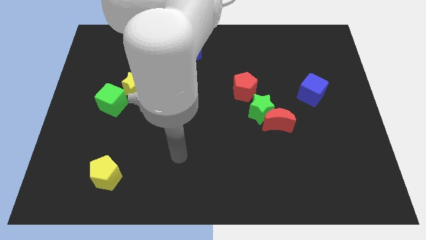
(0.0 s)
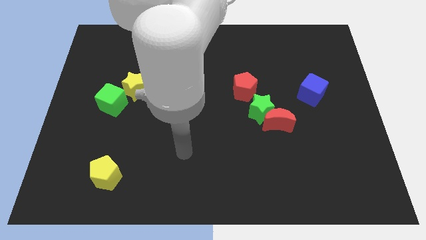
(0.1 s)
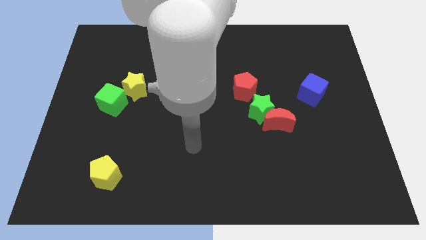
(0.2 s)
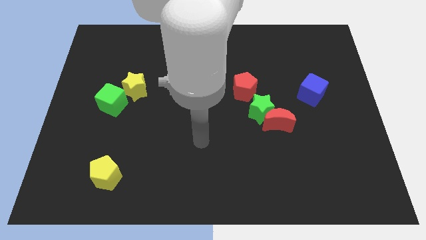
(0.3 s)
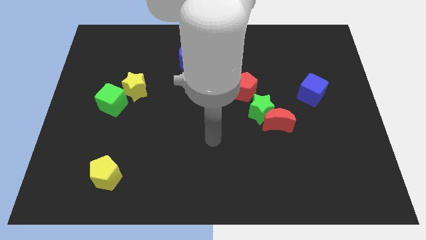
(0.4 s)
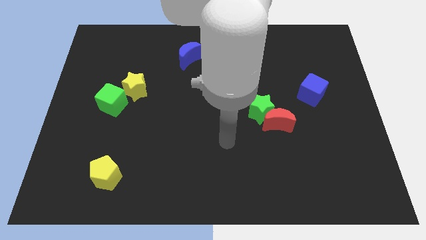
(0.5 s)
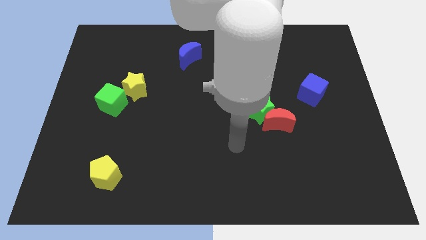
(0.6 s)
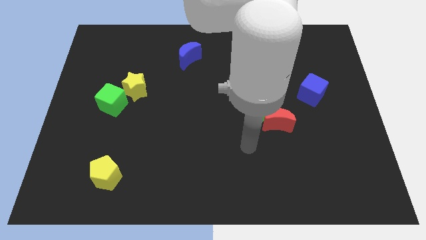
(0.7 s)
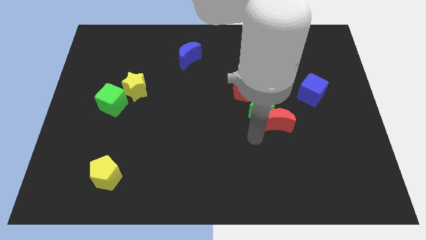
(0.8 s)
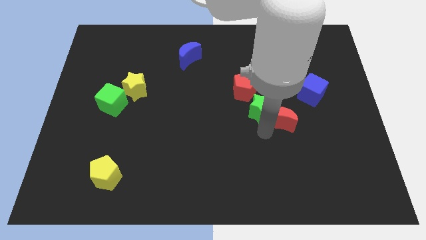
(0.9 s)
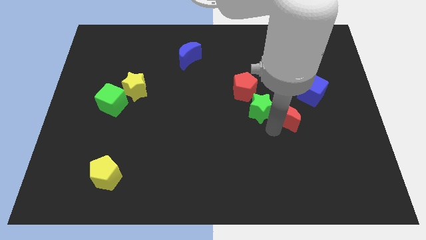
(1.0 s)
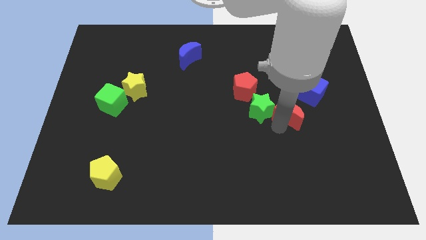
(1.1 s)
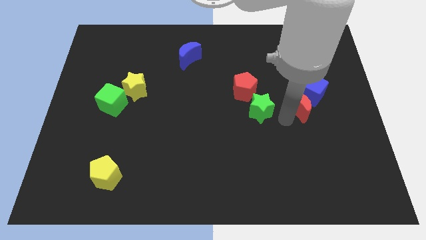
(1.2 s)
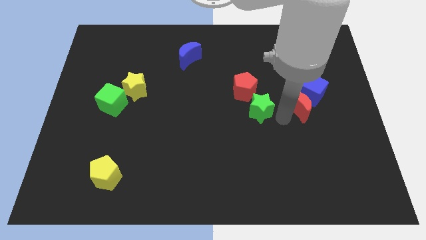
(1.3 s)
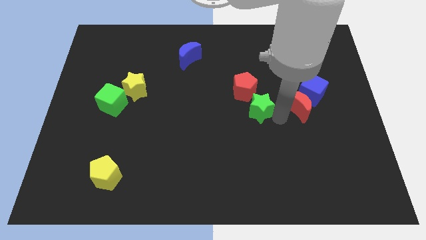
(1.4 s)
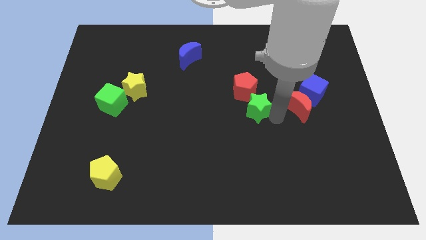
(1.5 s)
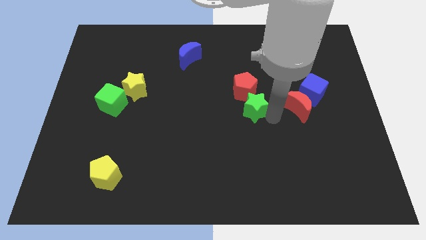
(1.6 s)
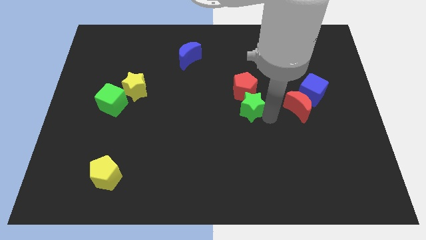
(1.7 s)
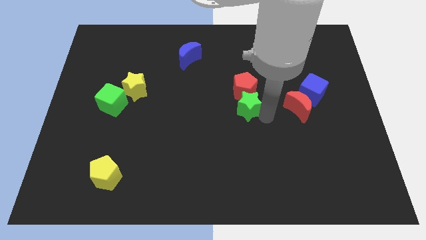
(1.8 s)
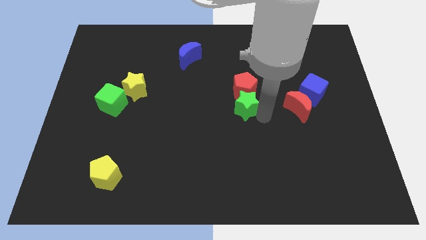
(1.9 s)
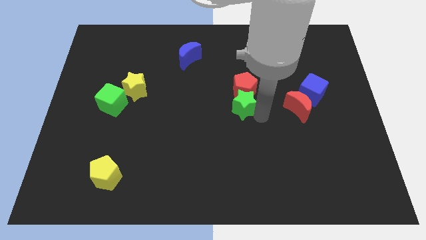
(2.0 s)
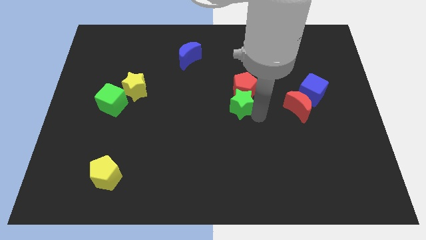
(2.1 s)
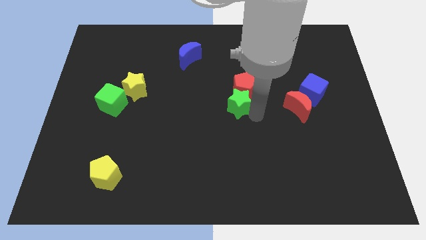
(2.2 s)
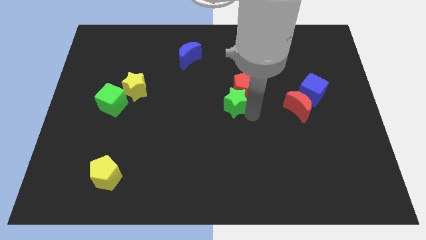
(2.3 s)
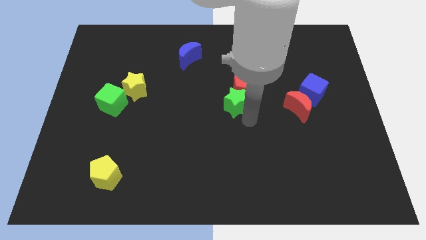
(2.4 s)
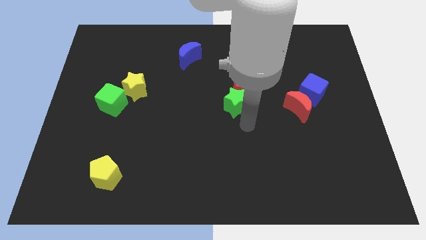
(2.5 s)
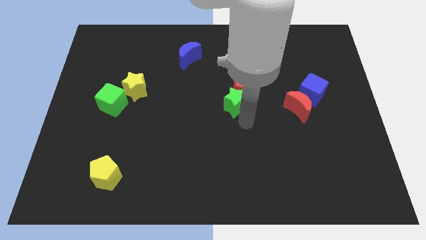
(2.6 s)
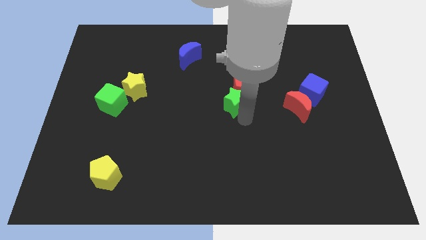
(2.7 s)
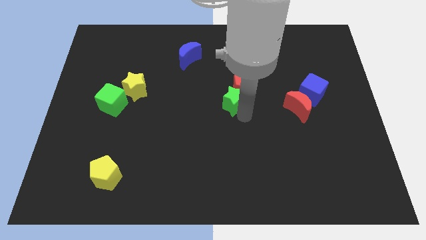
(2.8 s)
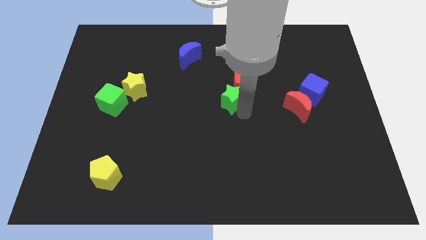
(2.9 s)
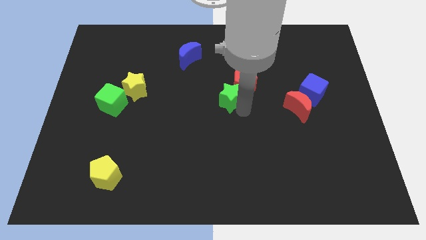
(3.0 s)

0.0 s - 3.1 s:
slightly move the green star up and then left

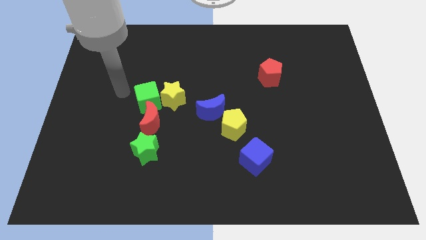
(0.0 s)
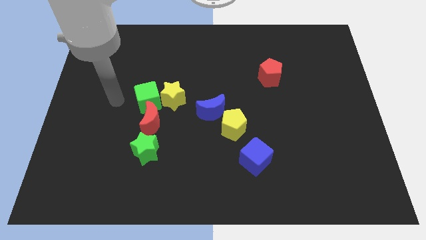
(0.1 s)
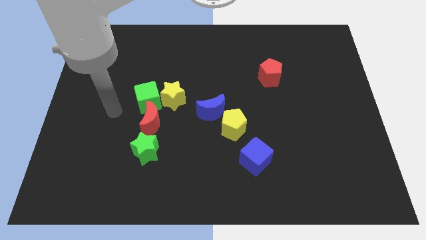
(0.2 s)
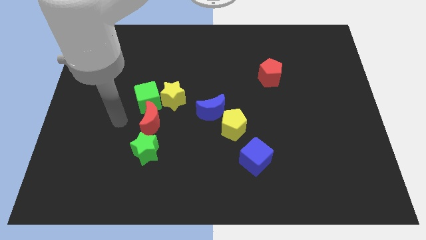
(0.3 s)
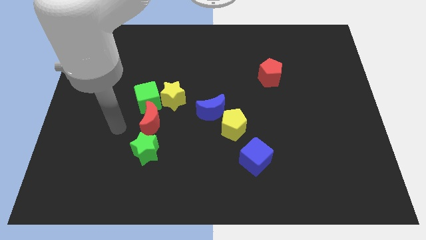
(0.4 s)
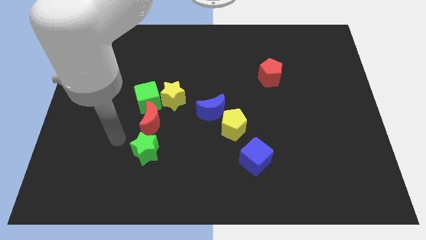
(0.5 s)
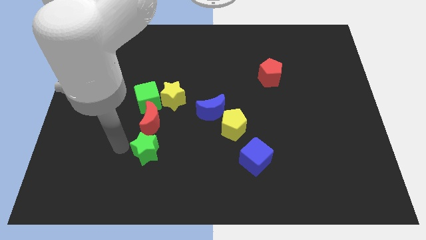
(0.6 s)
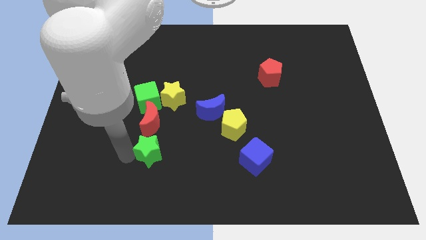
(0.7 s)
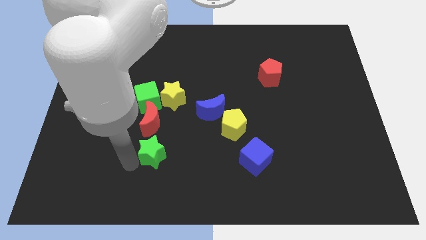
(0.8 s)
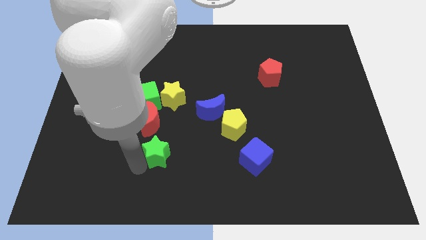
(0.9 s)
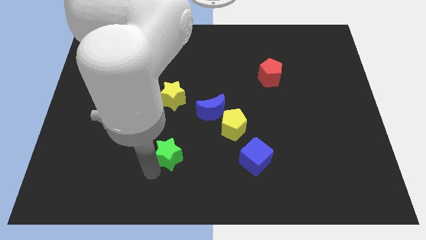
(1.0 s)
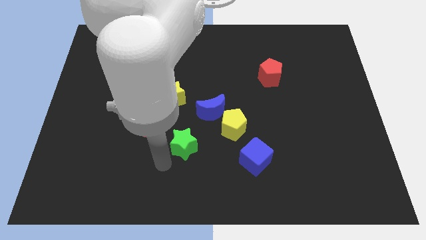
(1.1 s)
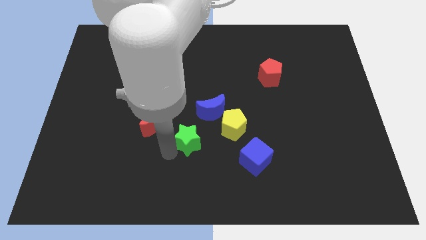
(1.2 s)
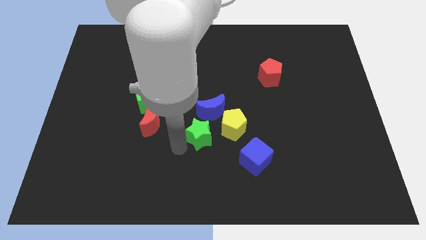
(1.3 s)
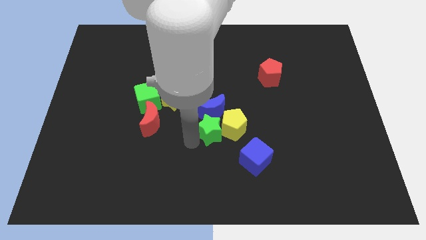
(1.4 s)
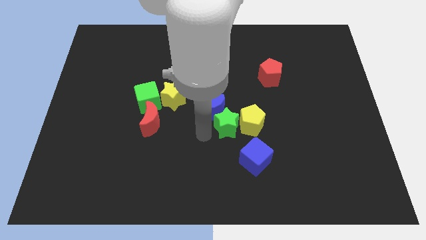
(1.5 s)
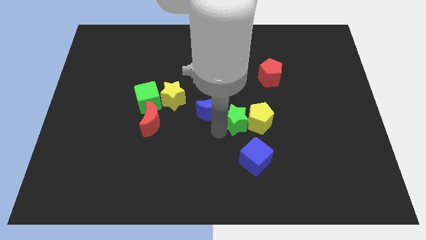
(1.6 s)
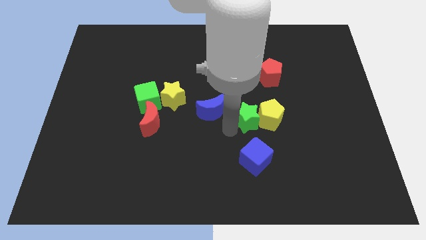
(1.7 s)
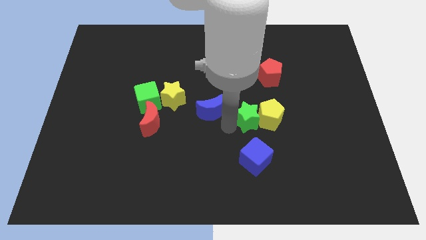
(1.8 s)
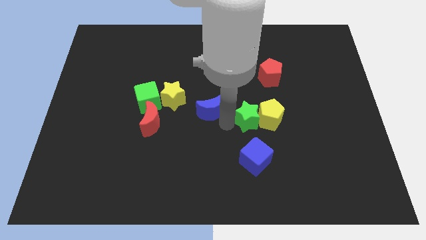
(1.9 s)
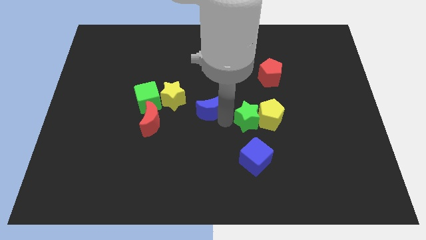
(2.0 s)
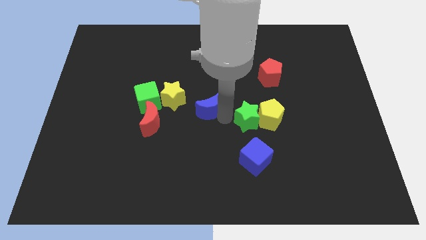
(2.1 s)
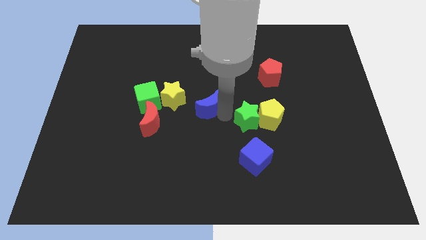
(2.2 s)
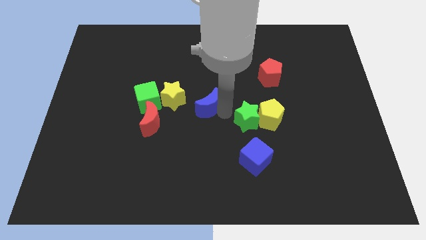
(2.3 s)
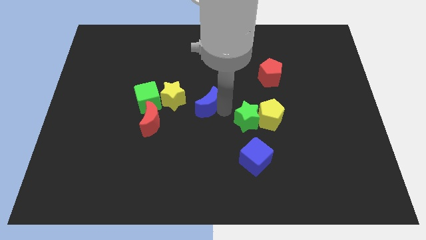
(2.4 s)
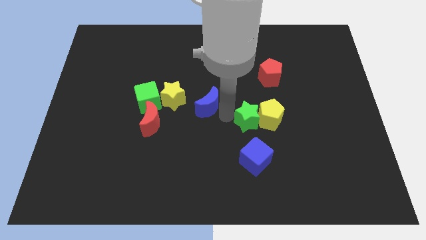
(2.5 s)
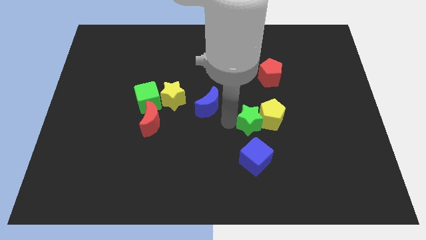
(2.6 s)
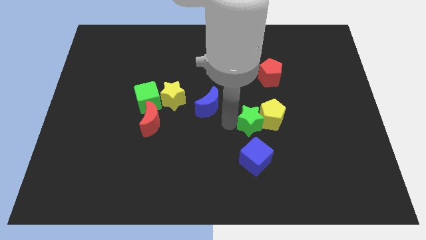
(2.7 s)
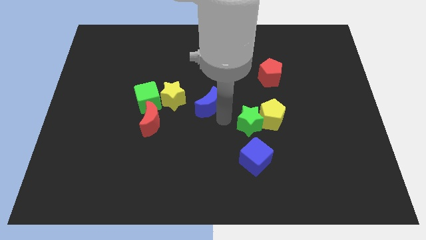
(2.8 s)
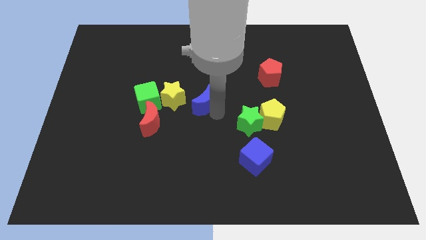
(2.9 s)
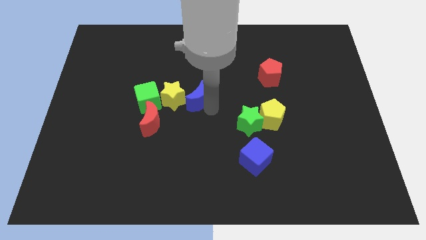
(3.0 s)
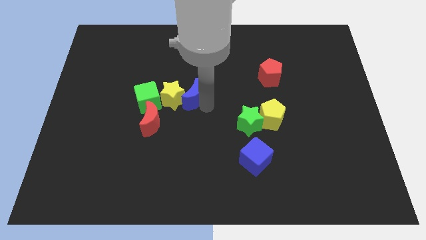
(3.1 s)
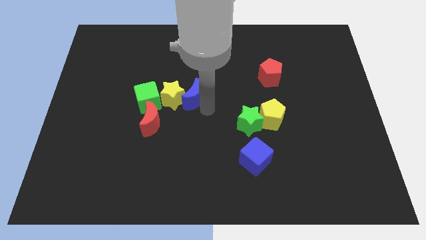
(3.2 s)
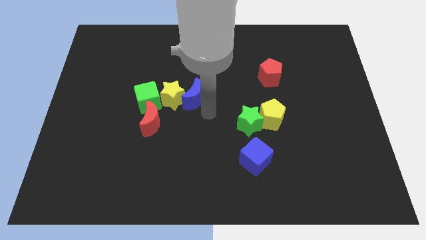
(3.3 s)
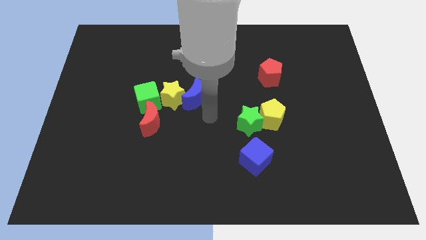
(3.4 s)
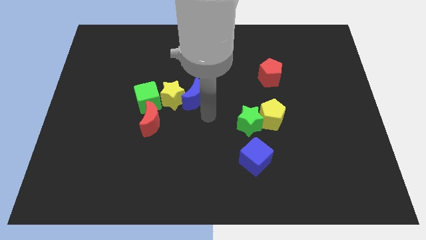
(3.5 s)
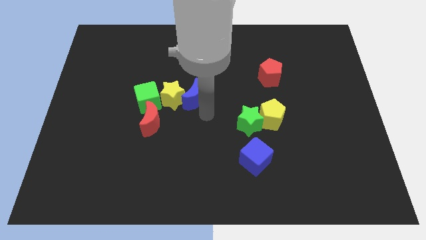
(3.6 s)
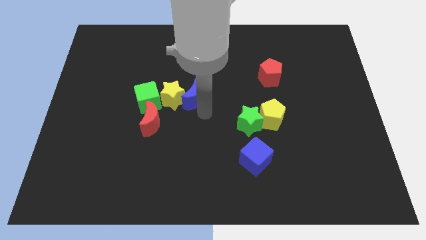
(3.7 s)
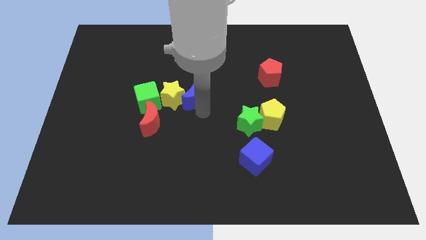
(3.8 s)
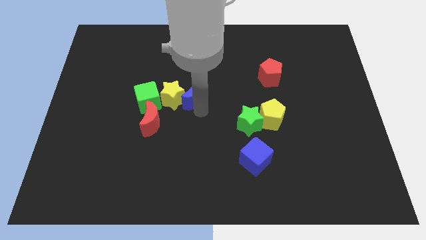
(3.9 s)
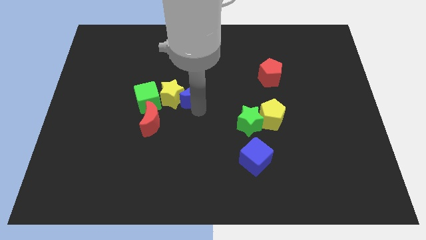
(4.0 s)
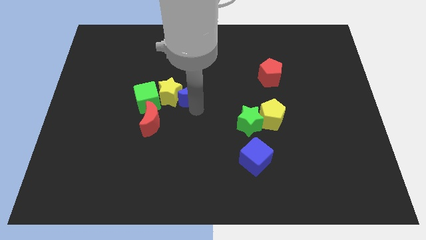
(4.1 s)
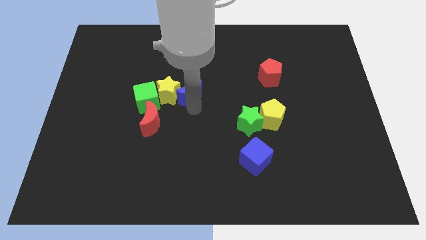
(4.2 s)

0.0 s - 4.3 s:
move the blue moon up and left diagonally a little

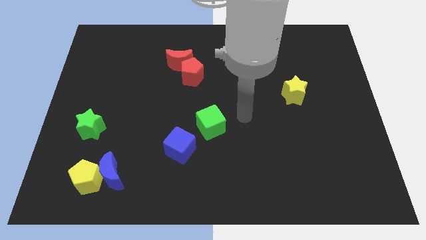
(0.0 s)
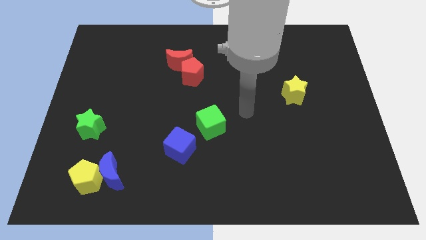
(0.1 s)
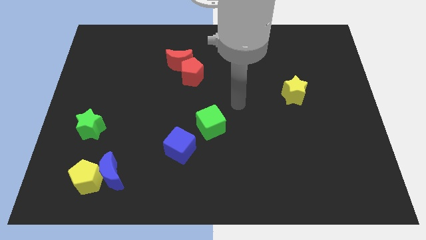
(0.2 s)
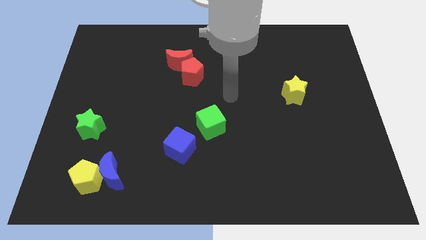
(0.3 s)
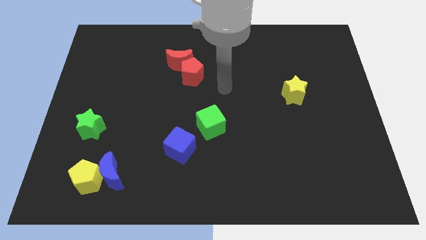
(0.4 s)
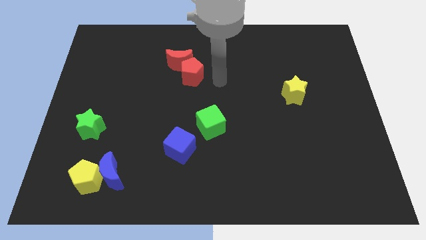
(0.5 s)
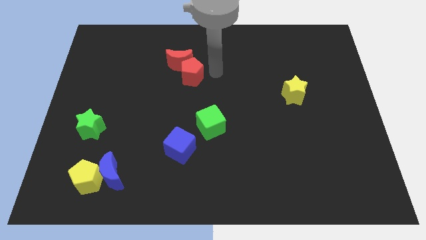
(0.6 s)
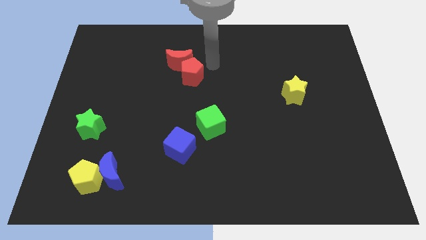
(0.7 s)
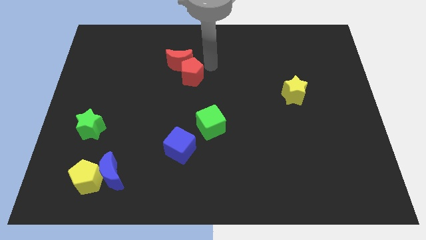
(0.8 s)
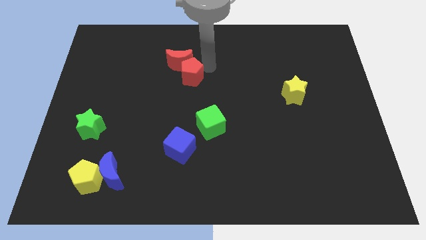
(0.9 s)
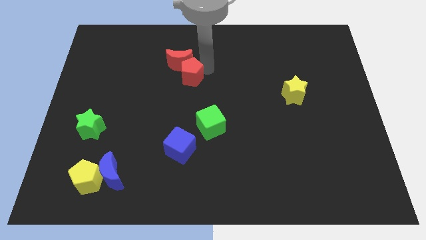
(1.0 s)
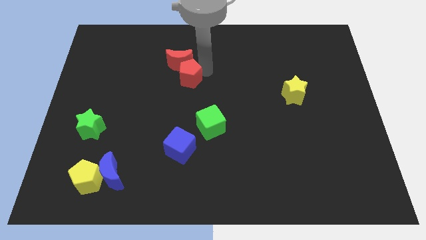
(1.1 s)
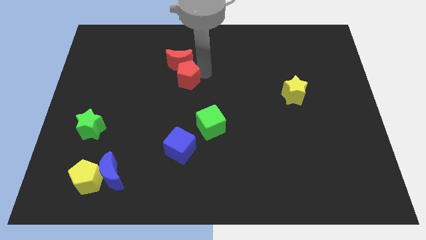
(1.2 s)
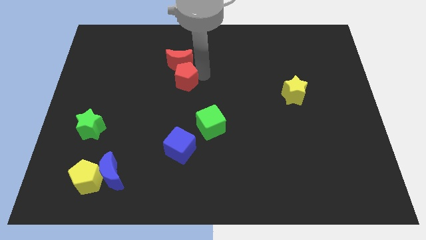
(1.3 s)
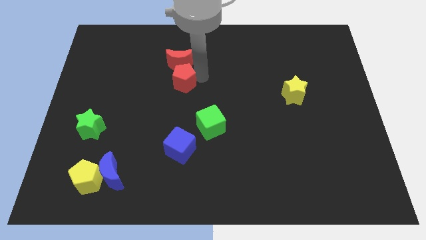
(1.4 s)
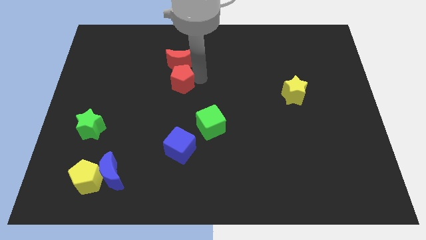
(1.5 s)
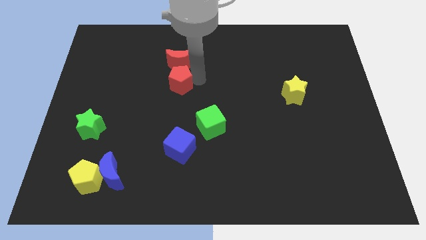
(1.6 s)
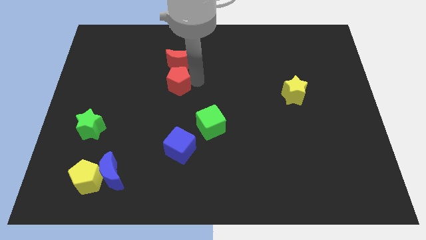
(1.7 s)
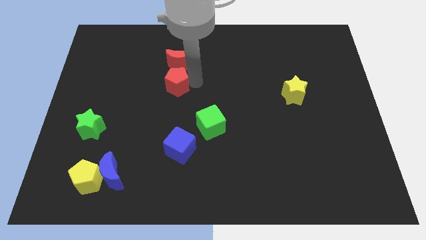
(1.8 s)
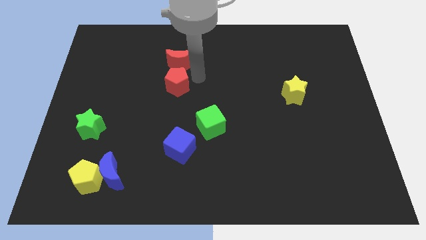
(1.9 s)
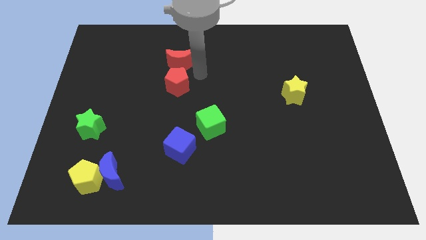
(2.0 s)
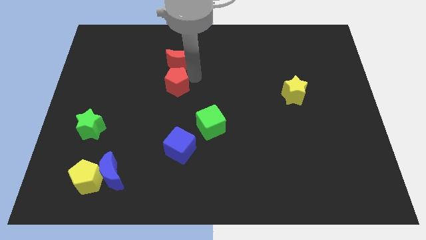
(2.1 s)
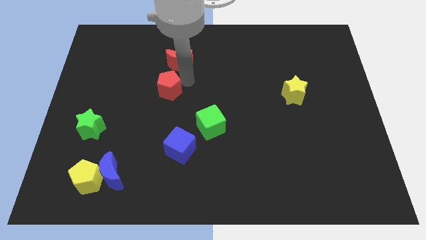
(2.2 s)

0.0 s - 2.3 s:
slightly move the red pentagon downwards and to the left
